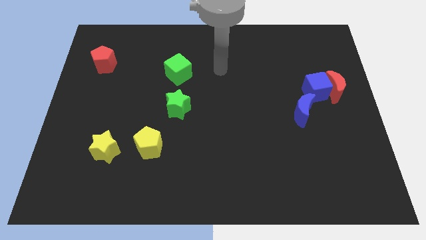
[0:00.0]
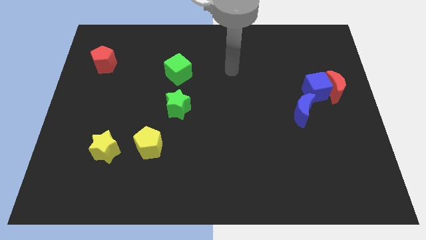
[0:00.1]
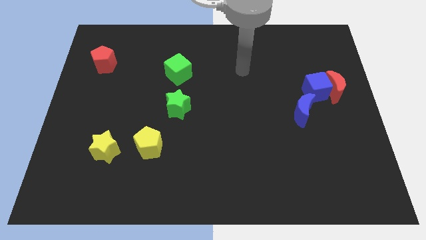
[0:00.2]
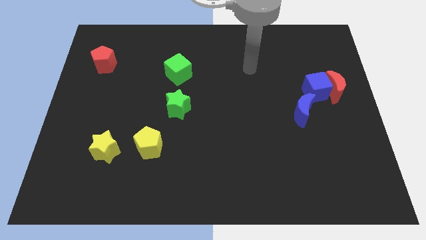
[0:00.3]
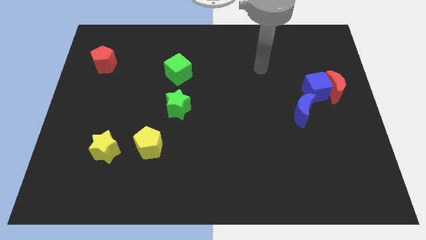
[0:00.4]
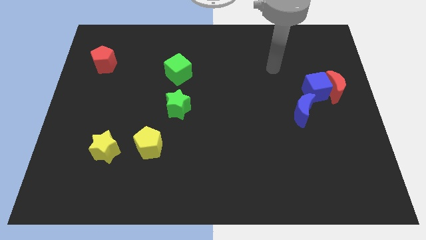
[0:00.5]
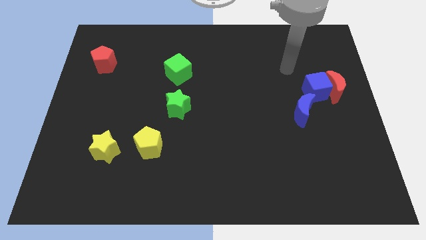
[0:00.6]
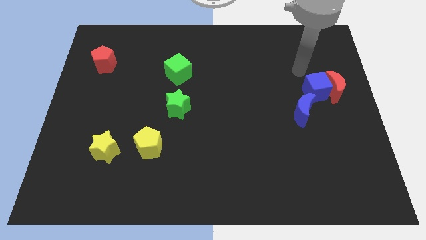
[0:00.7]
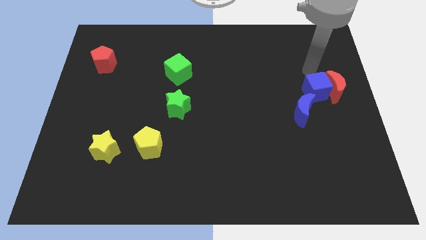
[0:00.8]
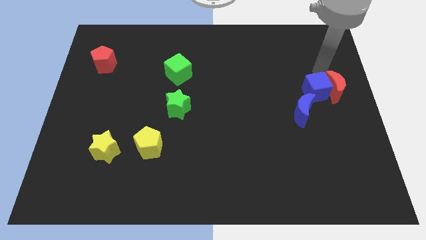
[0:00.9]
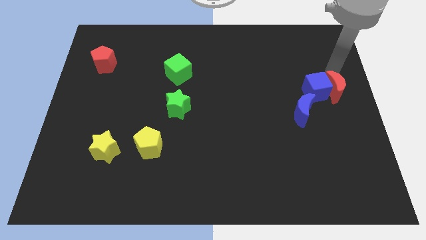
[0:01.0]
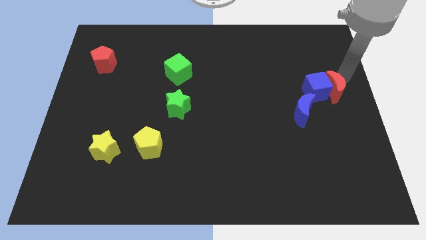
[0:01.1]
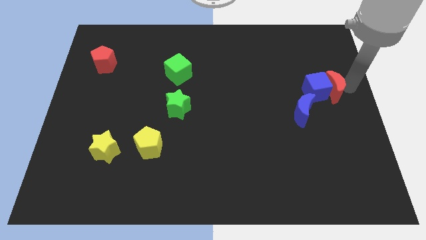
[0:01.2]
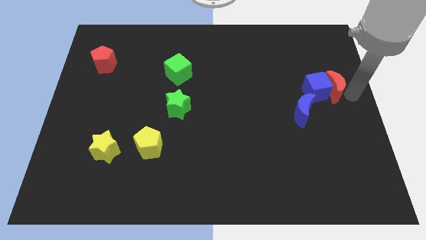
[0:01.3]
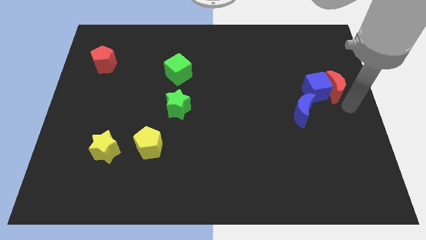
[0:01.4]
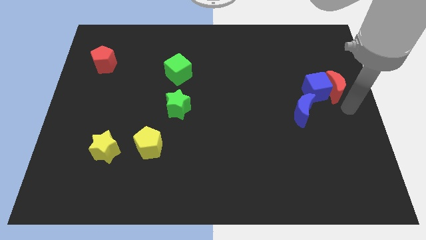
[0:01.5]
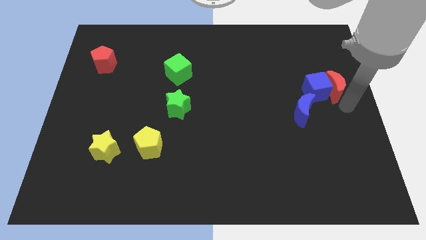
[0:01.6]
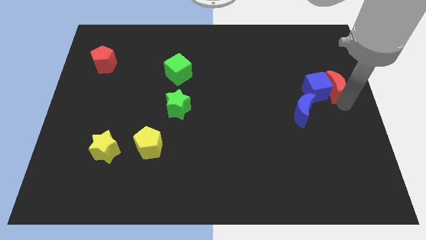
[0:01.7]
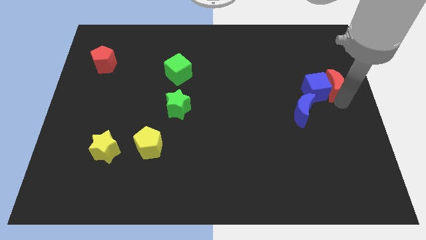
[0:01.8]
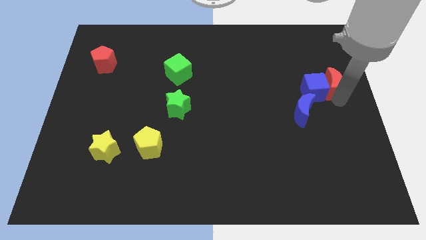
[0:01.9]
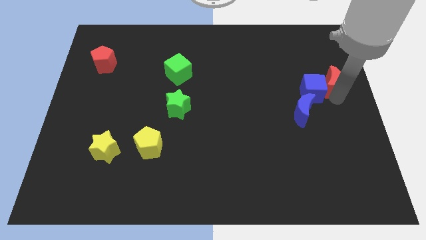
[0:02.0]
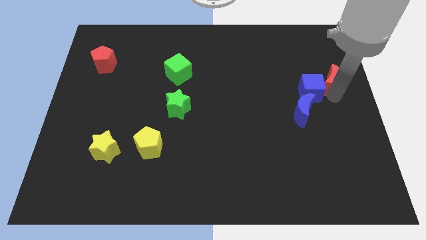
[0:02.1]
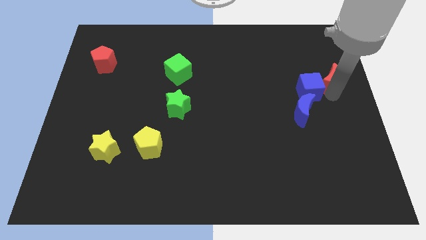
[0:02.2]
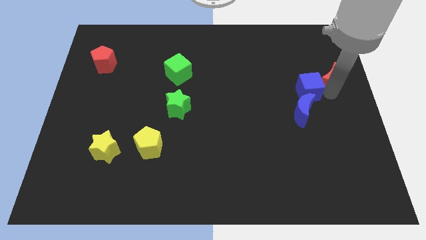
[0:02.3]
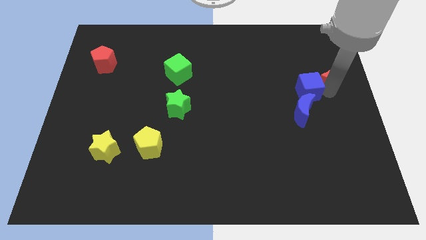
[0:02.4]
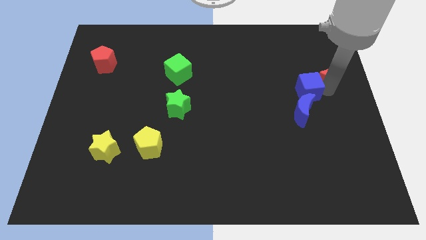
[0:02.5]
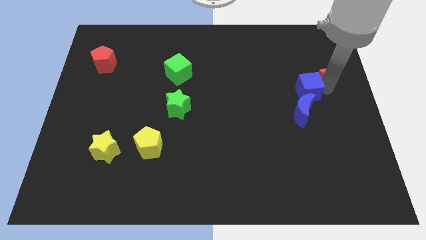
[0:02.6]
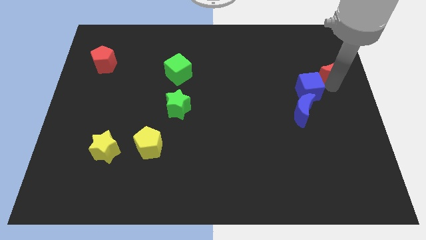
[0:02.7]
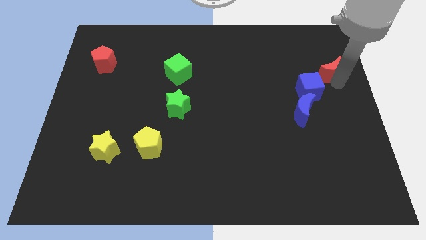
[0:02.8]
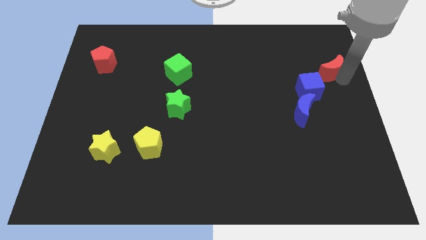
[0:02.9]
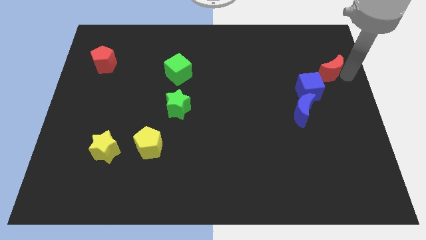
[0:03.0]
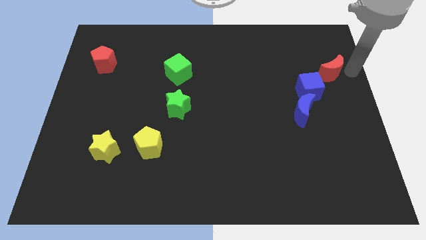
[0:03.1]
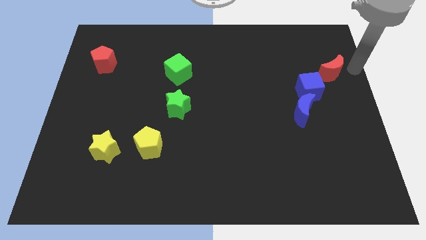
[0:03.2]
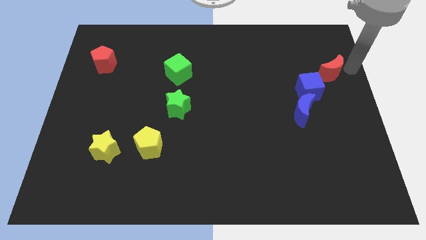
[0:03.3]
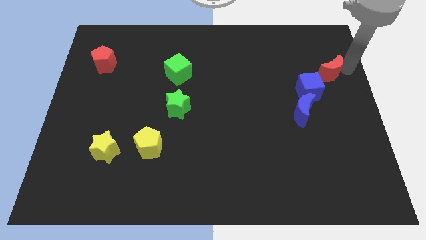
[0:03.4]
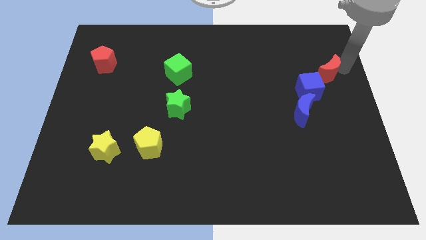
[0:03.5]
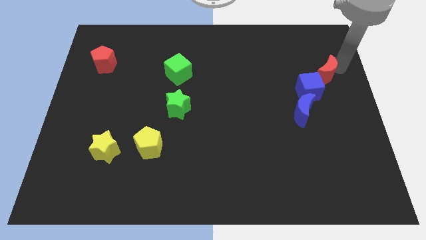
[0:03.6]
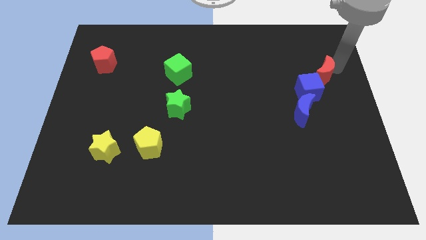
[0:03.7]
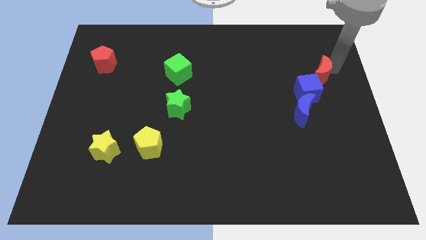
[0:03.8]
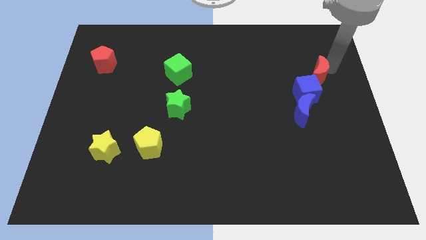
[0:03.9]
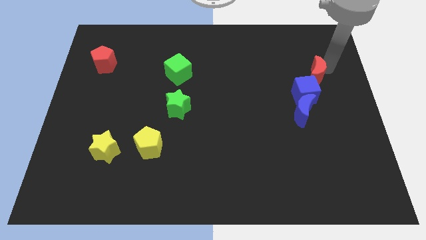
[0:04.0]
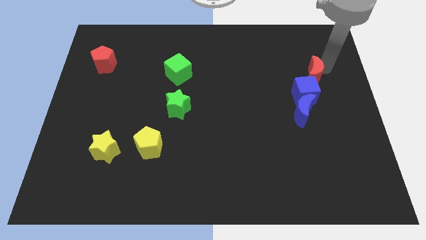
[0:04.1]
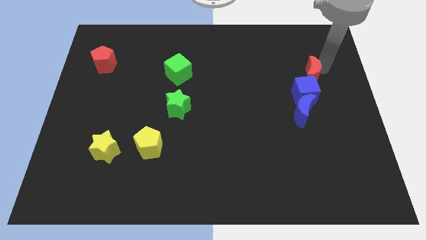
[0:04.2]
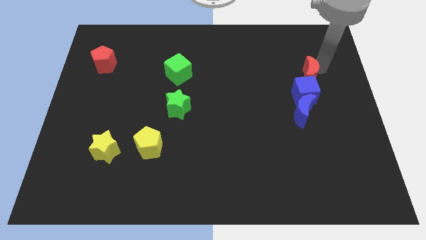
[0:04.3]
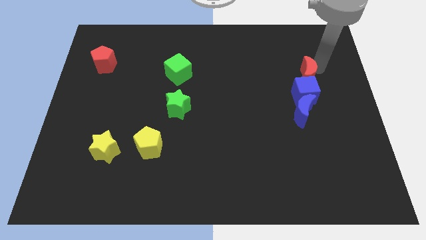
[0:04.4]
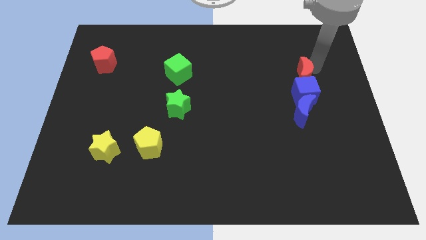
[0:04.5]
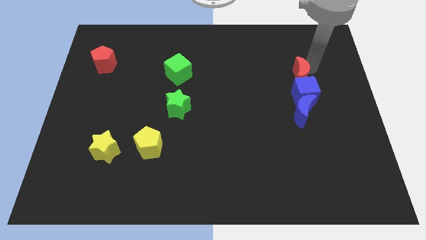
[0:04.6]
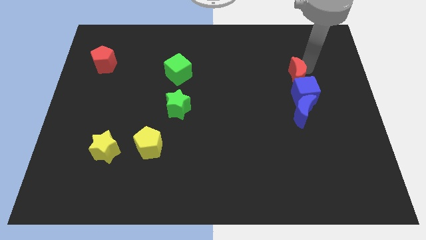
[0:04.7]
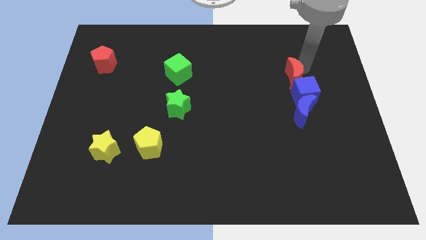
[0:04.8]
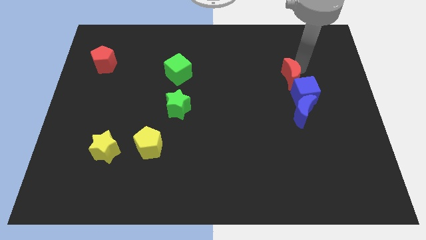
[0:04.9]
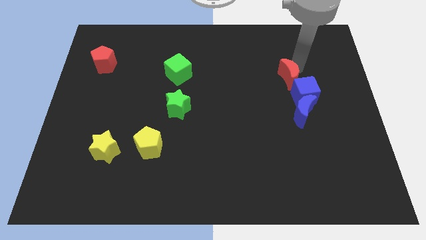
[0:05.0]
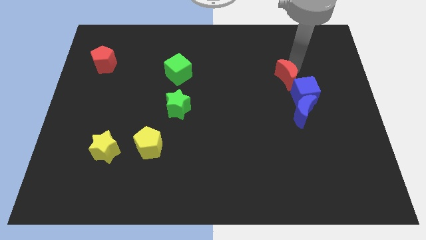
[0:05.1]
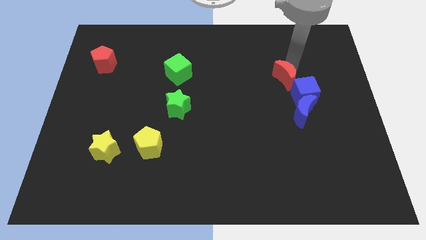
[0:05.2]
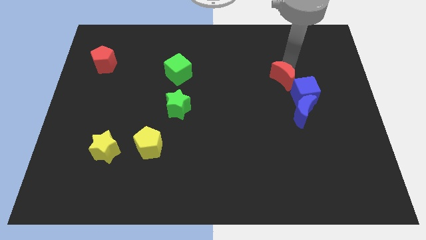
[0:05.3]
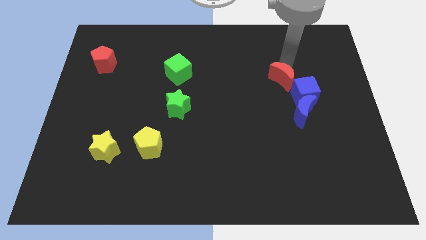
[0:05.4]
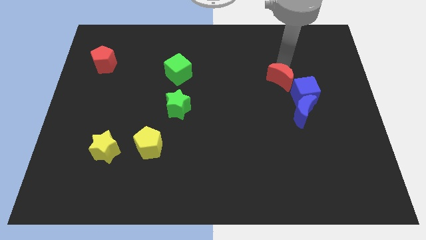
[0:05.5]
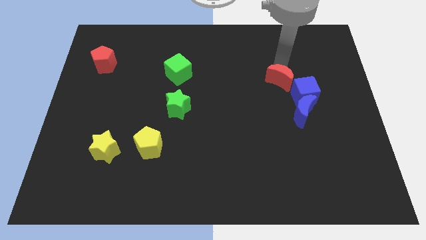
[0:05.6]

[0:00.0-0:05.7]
move the red moon to the top left of the blue moon
